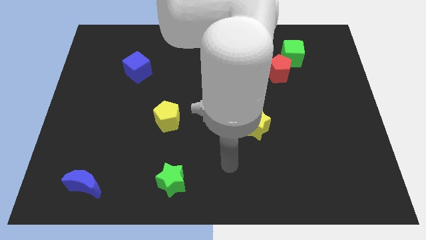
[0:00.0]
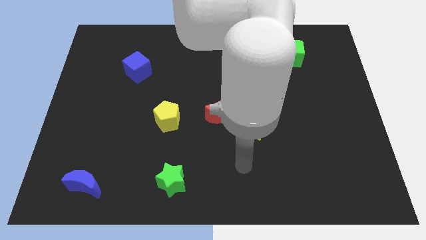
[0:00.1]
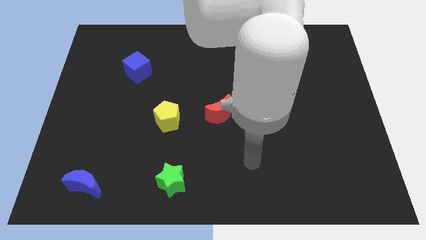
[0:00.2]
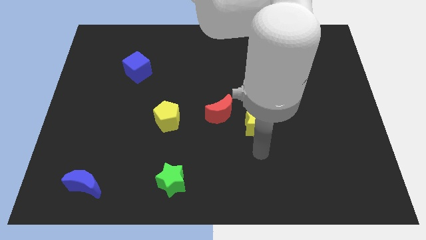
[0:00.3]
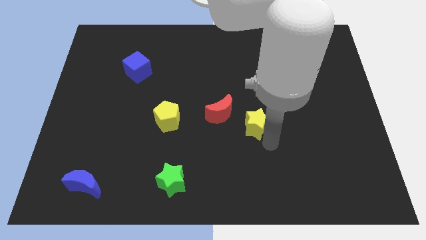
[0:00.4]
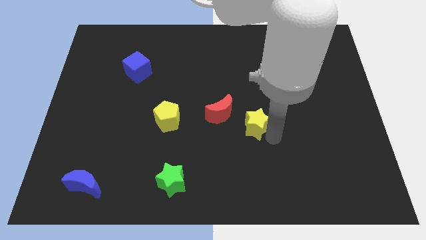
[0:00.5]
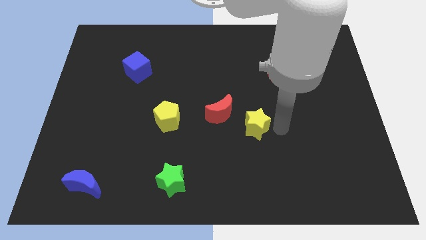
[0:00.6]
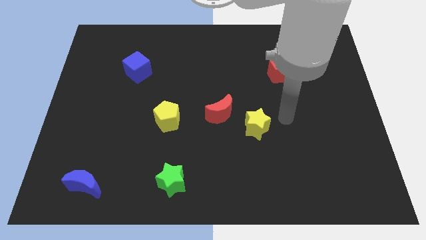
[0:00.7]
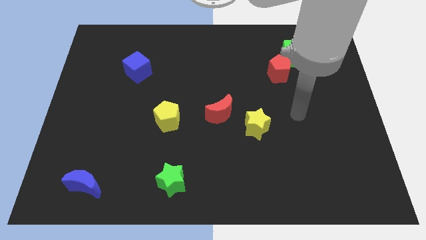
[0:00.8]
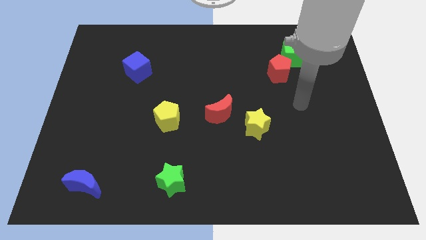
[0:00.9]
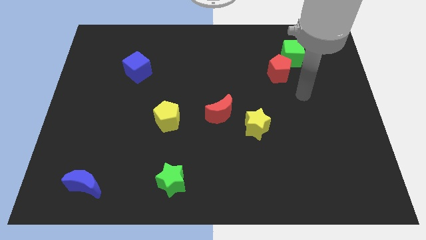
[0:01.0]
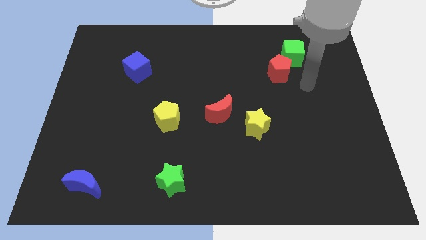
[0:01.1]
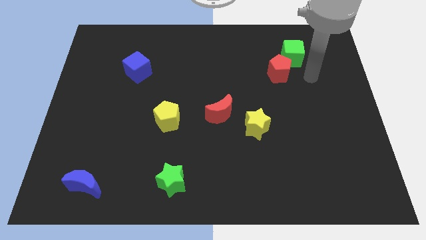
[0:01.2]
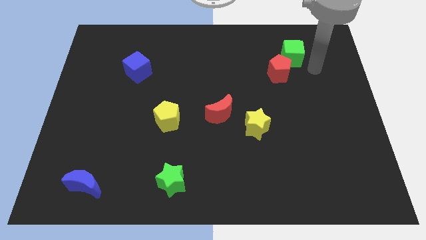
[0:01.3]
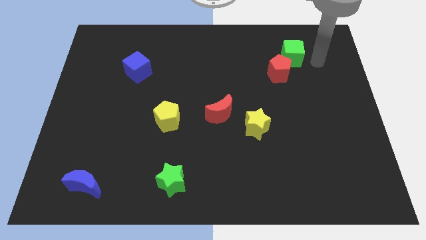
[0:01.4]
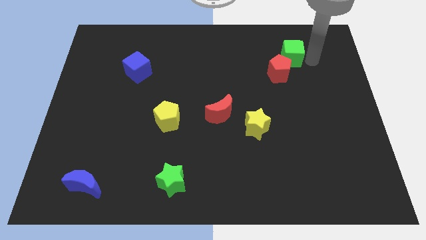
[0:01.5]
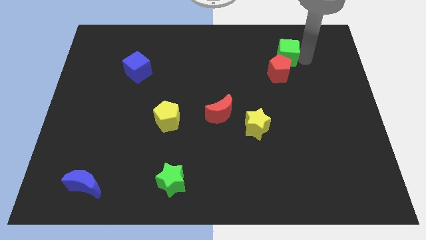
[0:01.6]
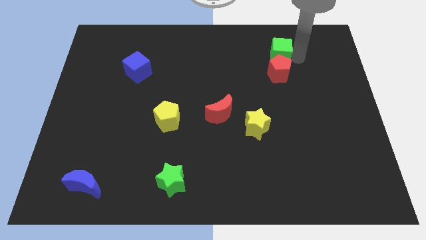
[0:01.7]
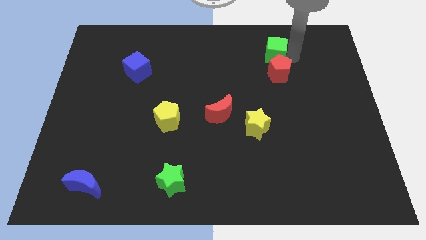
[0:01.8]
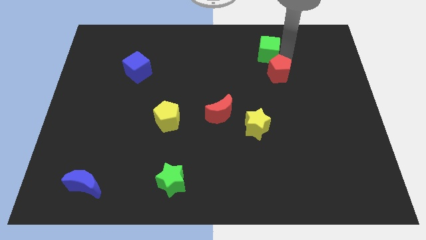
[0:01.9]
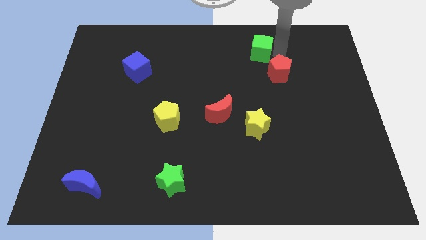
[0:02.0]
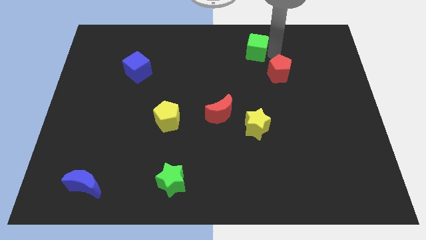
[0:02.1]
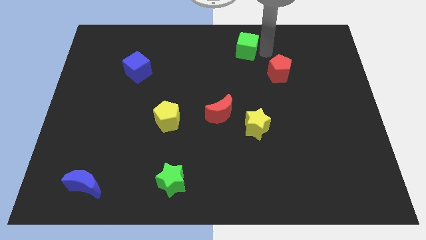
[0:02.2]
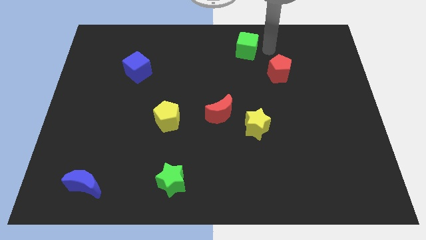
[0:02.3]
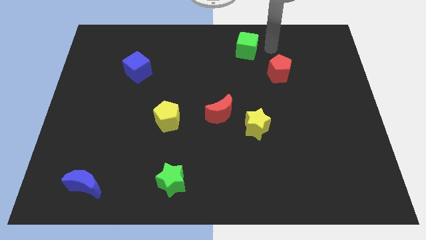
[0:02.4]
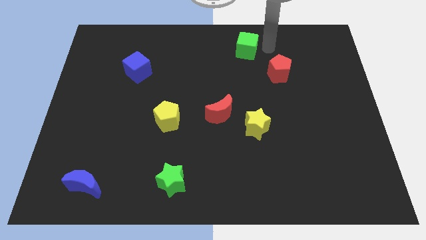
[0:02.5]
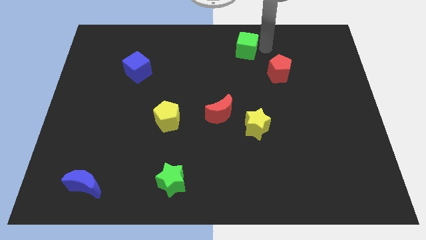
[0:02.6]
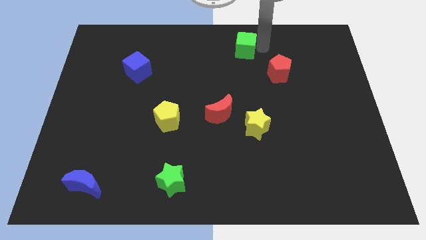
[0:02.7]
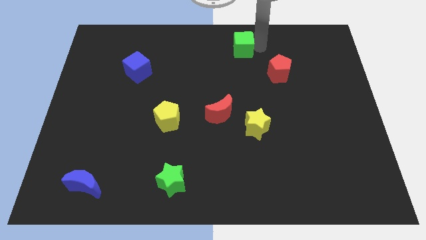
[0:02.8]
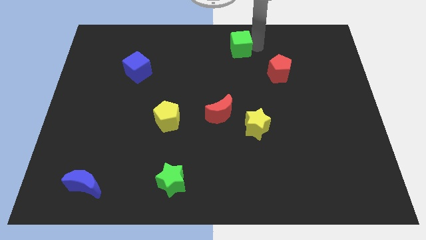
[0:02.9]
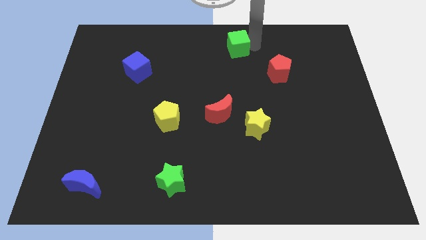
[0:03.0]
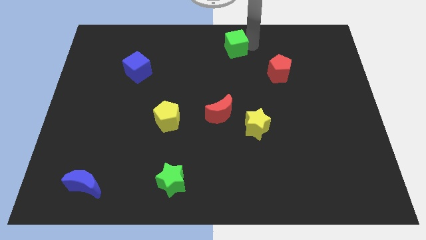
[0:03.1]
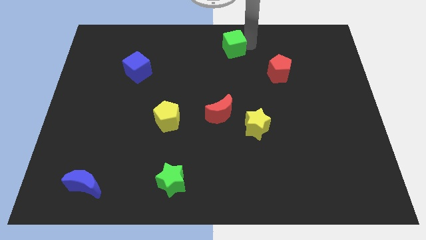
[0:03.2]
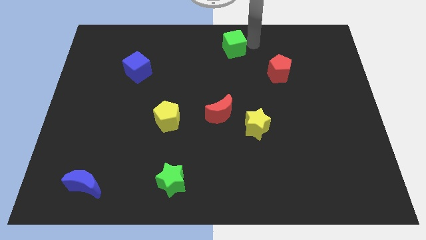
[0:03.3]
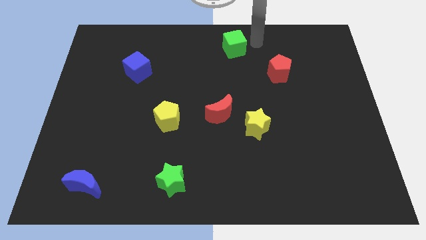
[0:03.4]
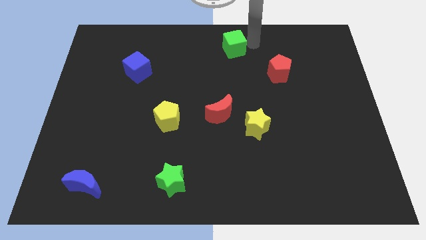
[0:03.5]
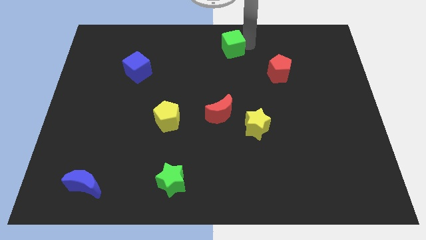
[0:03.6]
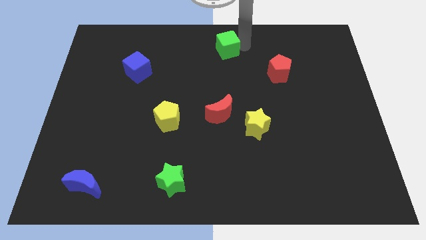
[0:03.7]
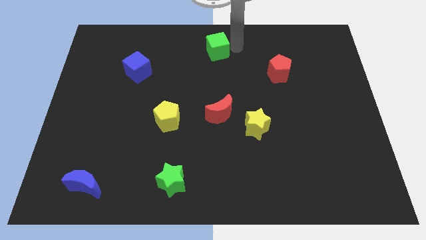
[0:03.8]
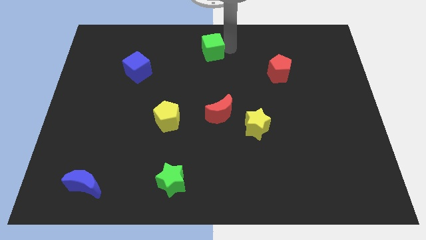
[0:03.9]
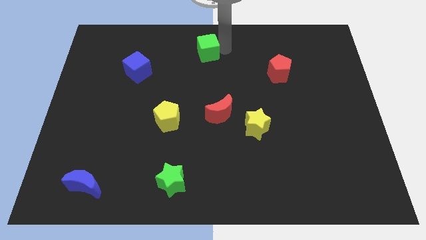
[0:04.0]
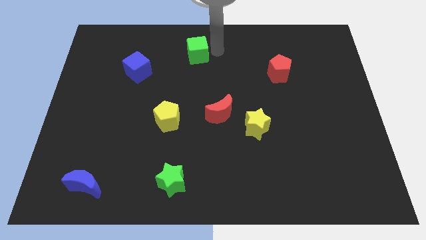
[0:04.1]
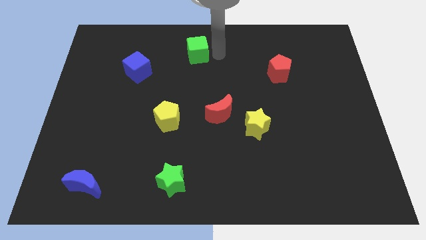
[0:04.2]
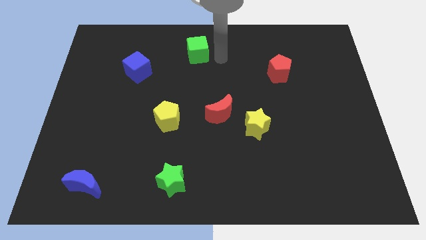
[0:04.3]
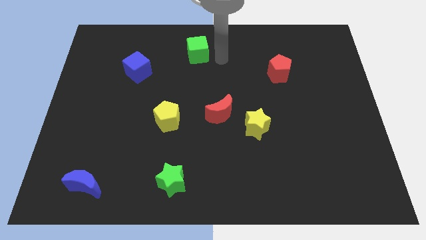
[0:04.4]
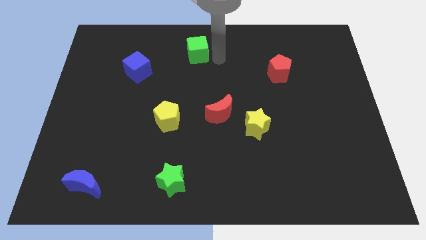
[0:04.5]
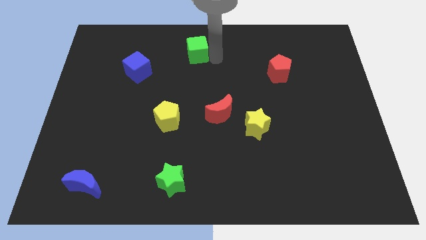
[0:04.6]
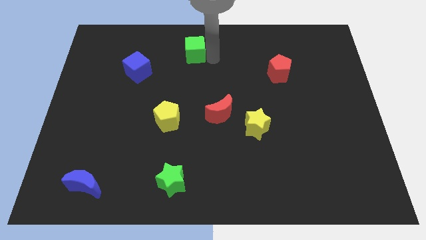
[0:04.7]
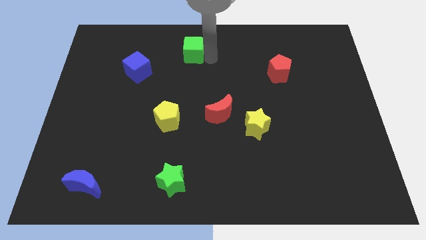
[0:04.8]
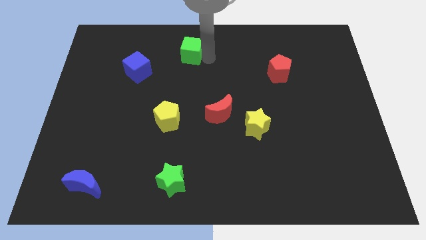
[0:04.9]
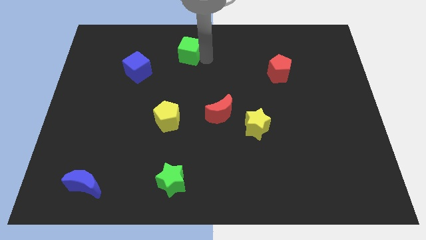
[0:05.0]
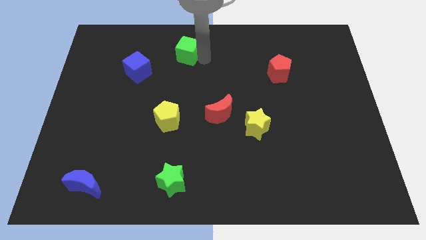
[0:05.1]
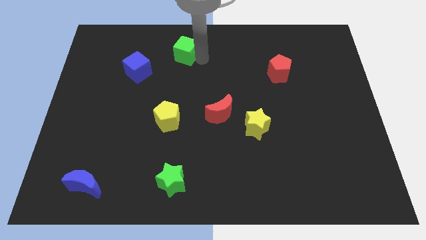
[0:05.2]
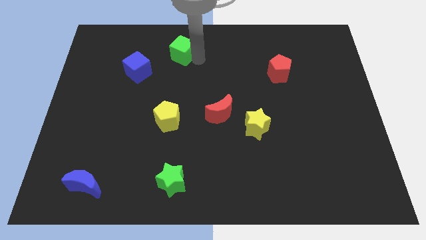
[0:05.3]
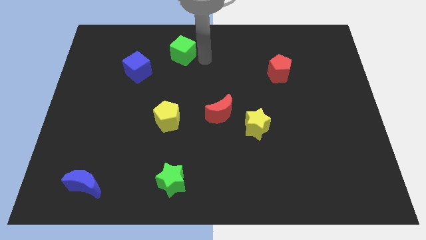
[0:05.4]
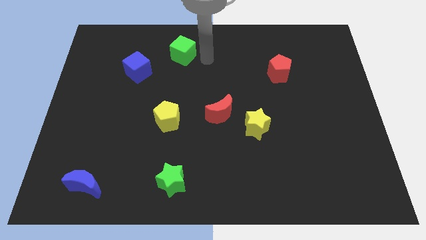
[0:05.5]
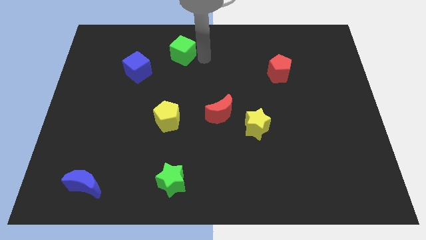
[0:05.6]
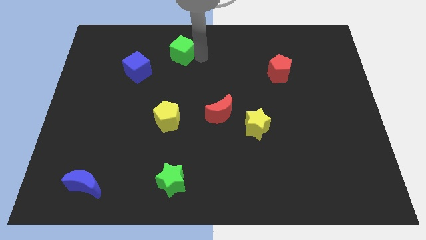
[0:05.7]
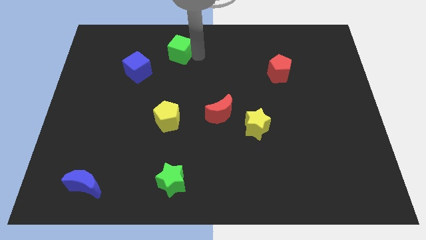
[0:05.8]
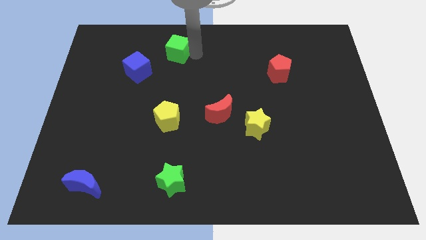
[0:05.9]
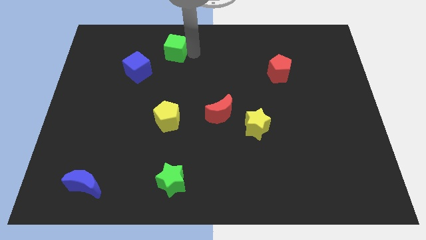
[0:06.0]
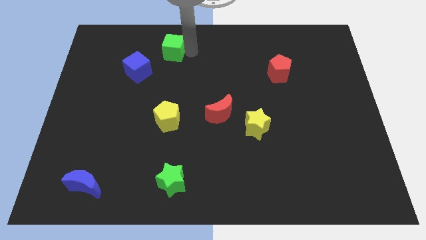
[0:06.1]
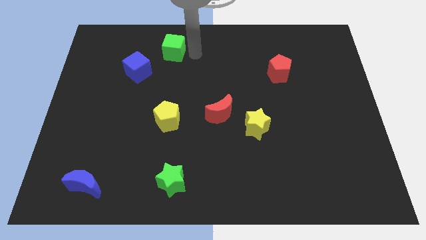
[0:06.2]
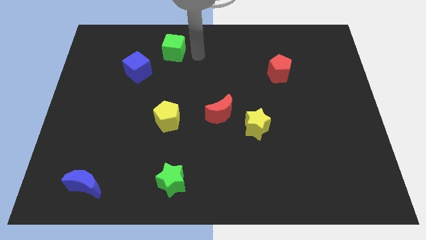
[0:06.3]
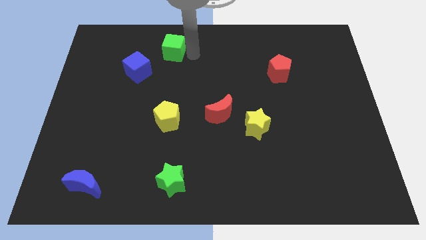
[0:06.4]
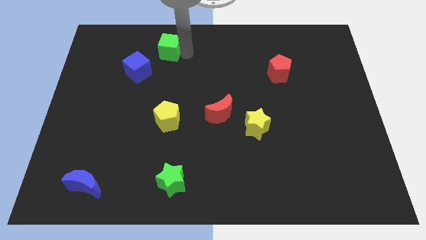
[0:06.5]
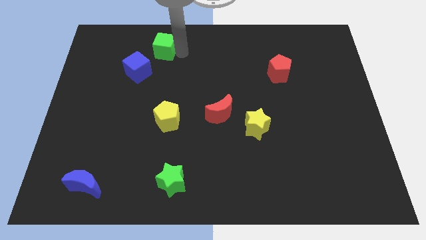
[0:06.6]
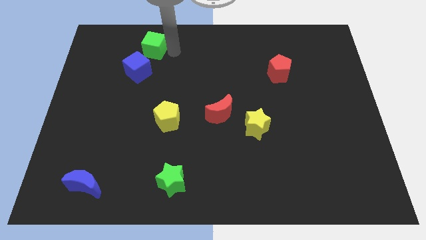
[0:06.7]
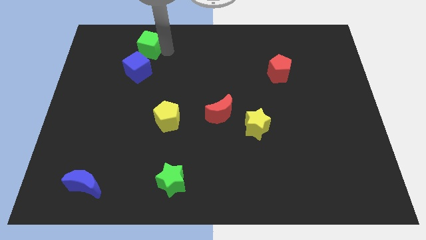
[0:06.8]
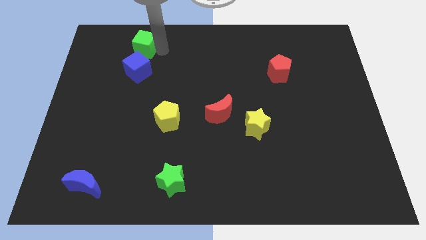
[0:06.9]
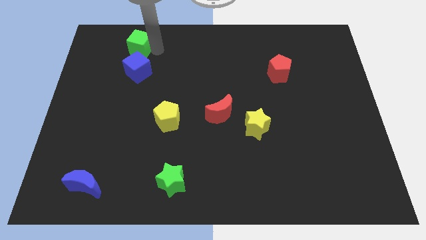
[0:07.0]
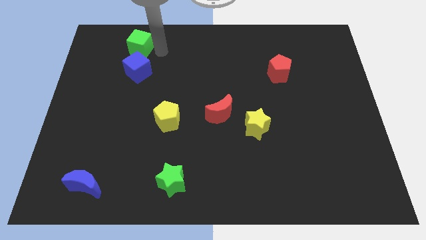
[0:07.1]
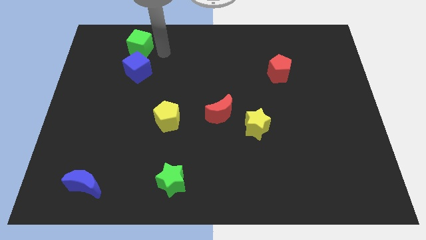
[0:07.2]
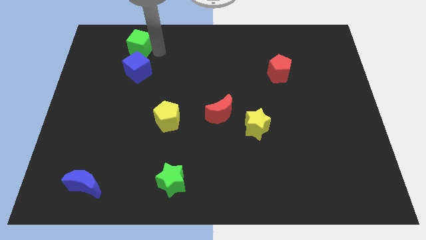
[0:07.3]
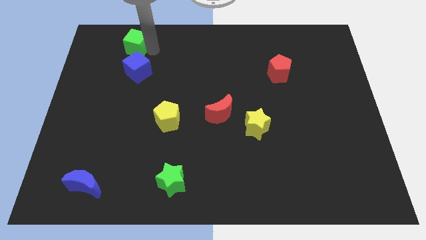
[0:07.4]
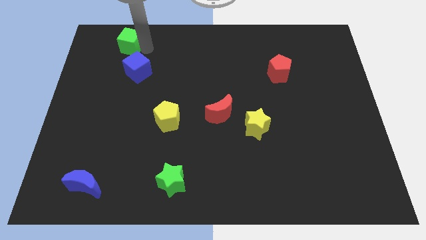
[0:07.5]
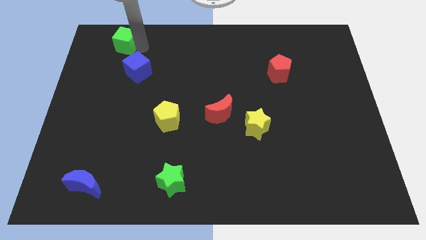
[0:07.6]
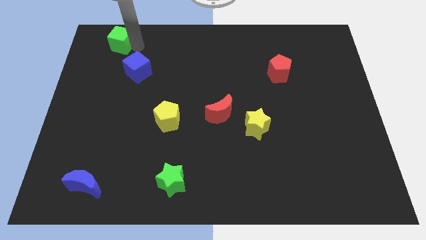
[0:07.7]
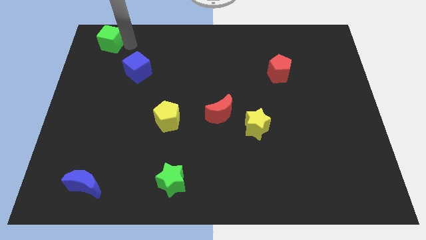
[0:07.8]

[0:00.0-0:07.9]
slide the green cube to the top left of the board
